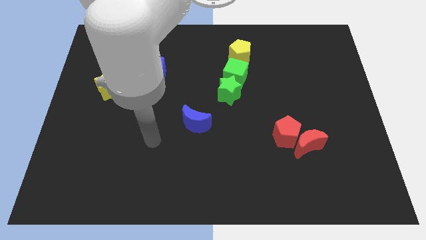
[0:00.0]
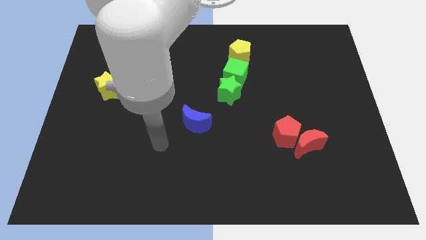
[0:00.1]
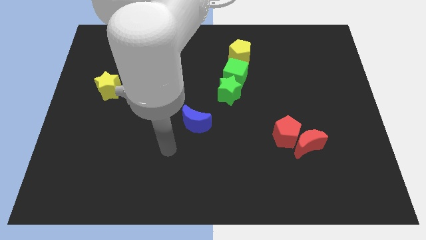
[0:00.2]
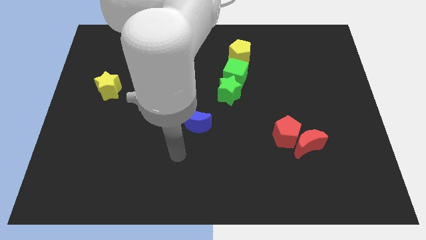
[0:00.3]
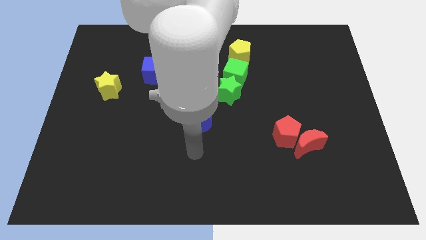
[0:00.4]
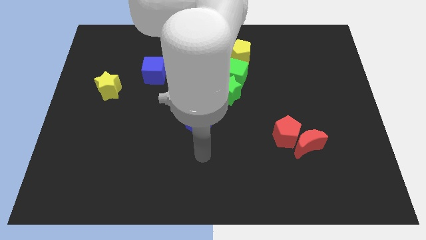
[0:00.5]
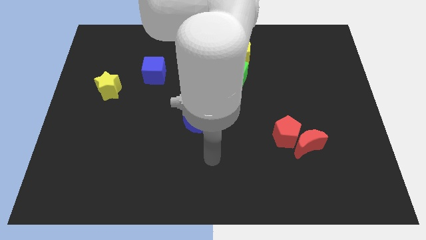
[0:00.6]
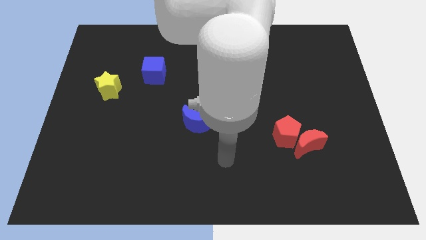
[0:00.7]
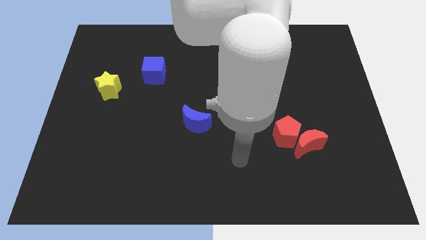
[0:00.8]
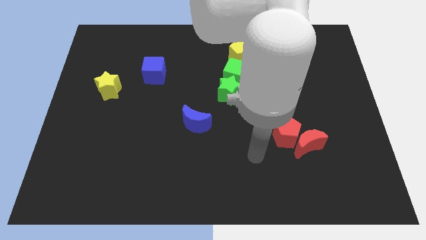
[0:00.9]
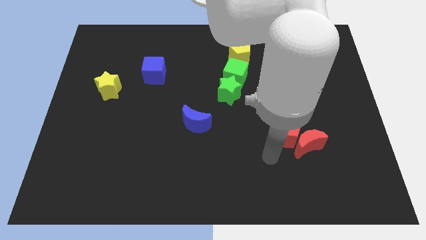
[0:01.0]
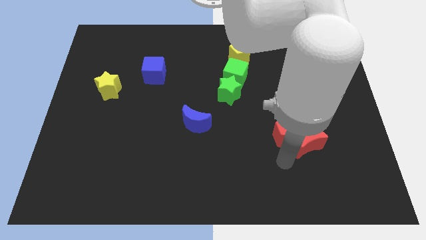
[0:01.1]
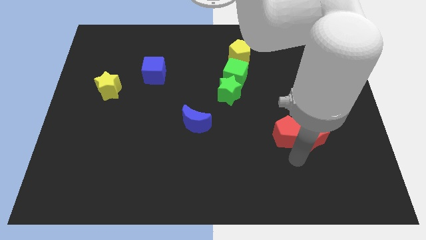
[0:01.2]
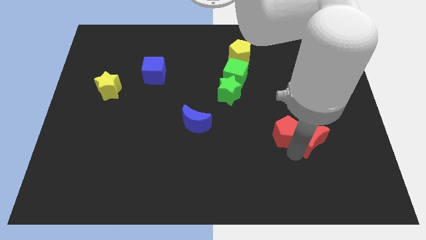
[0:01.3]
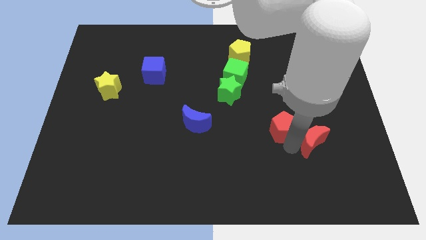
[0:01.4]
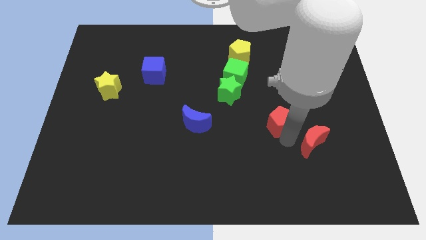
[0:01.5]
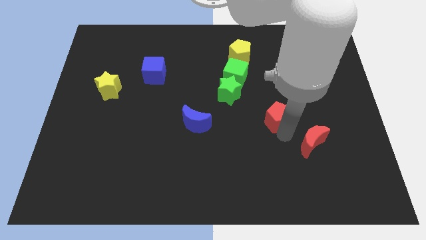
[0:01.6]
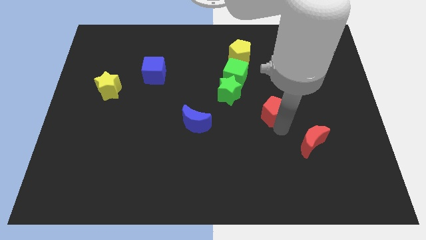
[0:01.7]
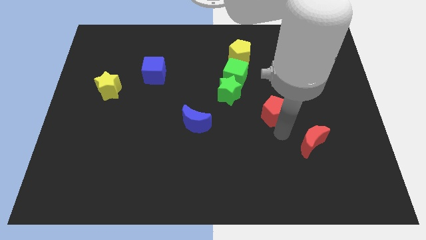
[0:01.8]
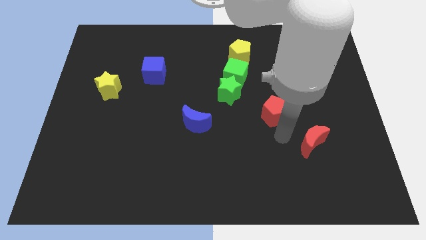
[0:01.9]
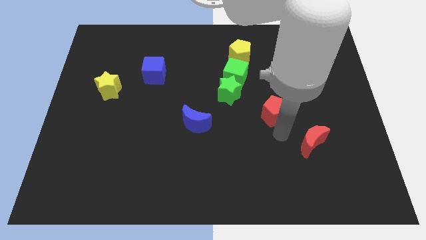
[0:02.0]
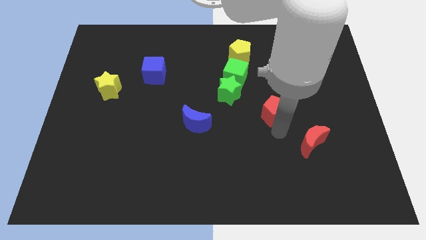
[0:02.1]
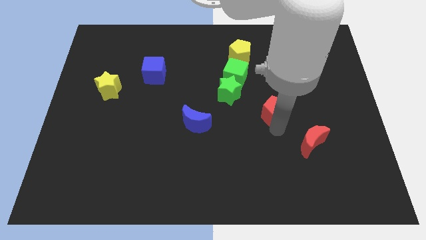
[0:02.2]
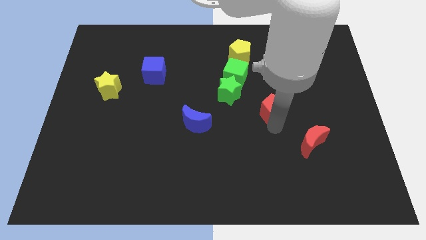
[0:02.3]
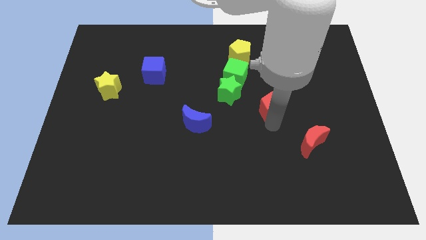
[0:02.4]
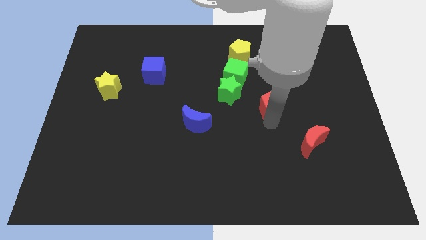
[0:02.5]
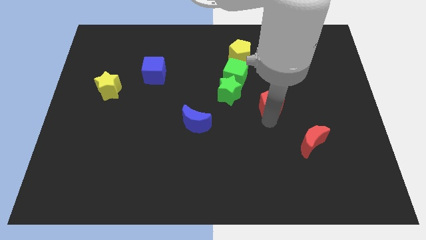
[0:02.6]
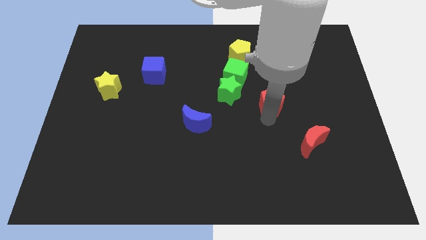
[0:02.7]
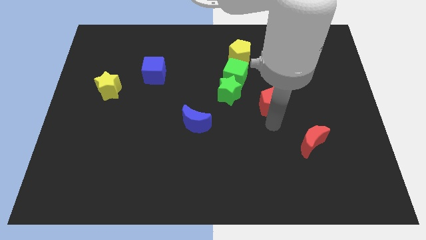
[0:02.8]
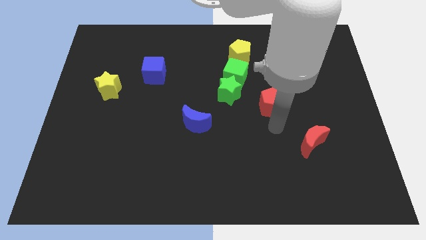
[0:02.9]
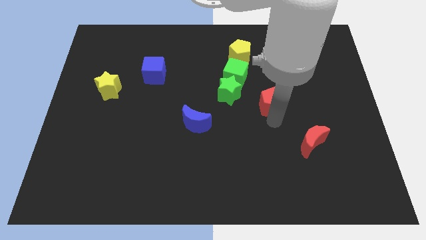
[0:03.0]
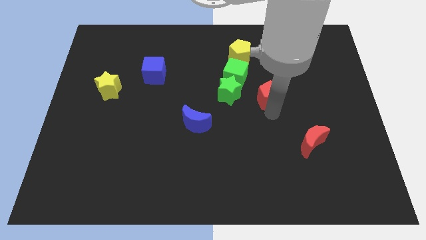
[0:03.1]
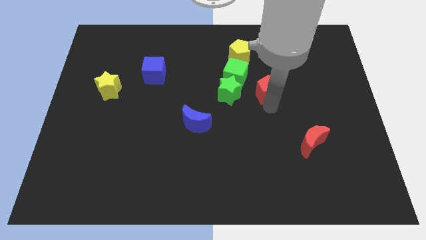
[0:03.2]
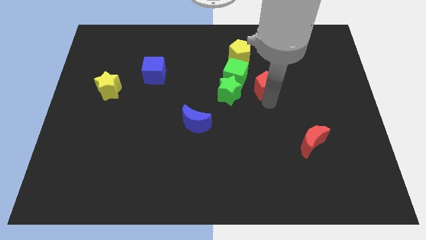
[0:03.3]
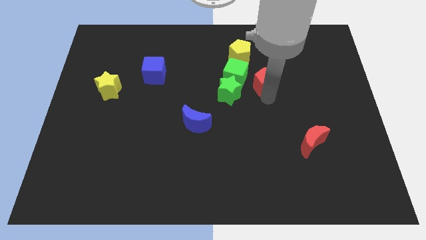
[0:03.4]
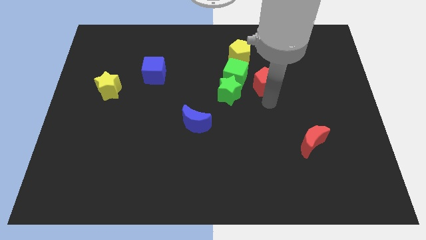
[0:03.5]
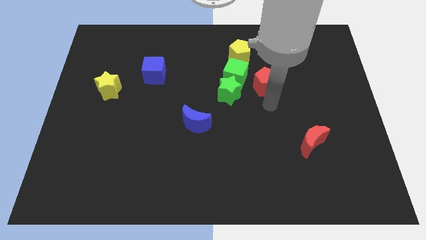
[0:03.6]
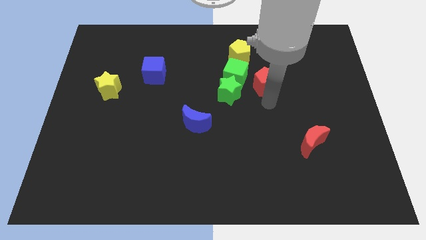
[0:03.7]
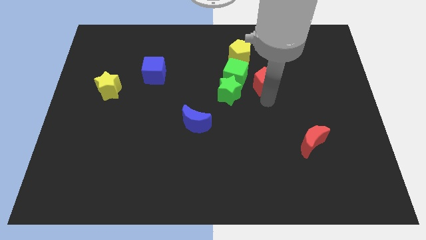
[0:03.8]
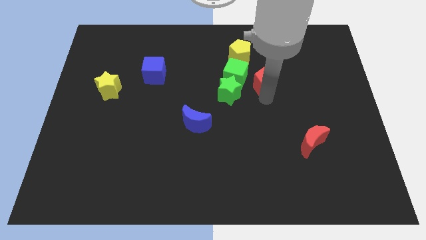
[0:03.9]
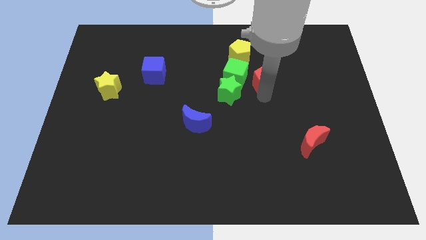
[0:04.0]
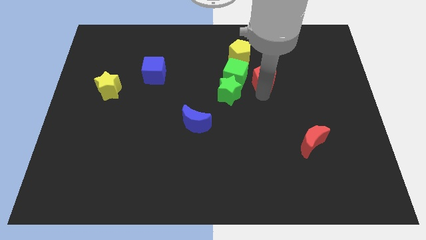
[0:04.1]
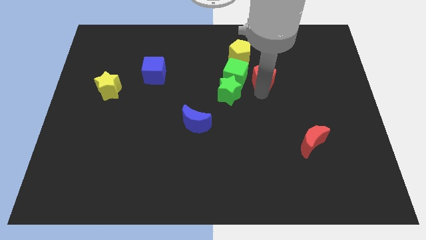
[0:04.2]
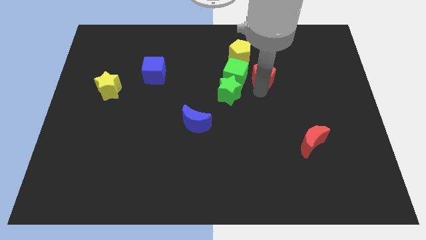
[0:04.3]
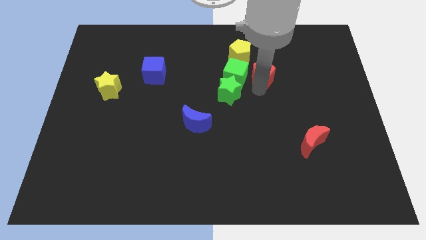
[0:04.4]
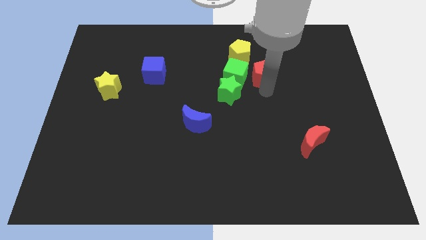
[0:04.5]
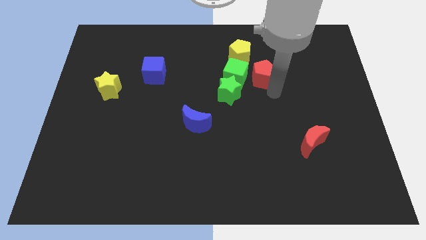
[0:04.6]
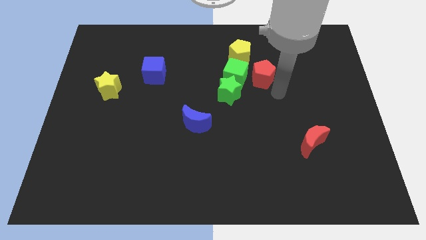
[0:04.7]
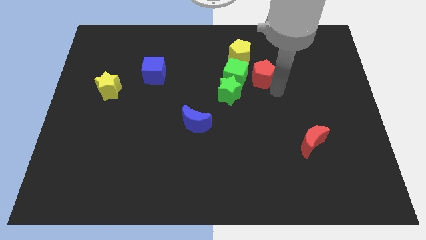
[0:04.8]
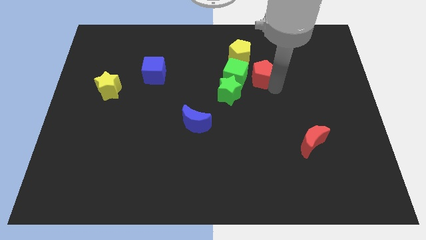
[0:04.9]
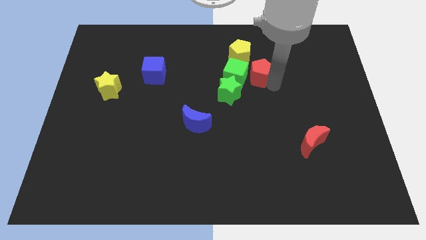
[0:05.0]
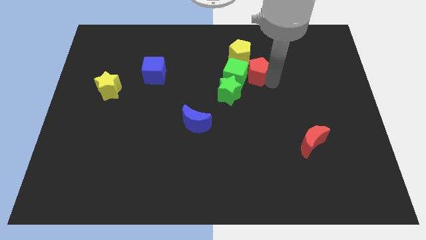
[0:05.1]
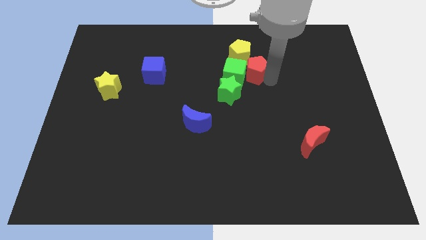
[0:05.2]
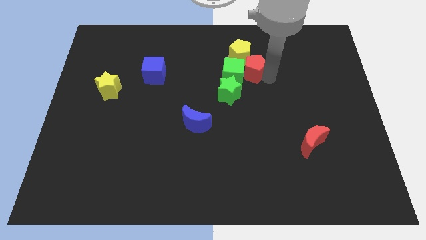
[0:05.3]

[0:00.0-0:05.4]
slide the red pentagon close to the yellow pentagon

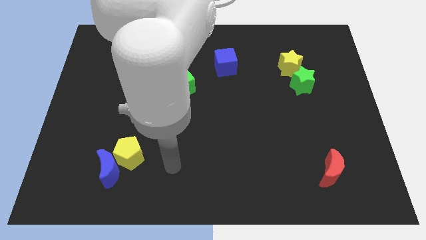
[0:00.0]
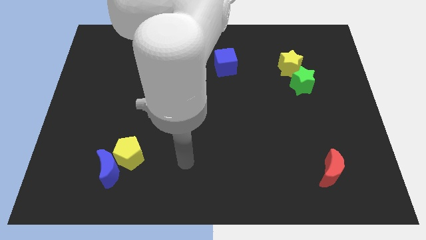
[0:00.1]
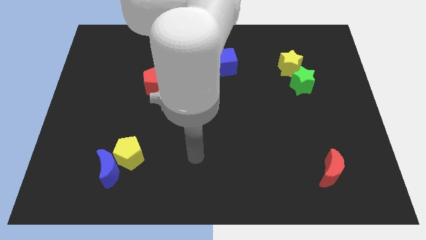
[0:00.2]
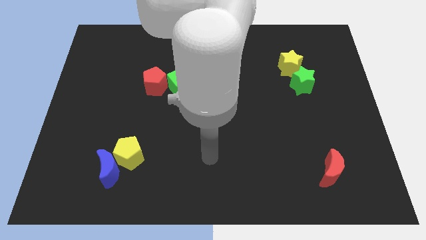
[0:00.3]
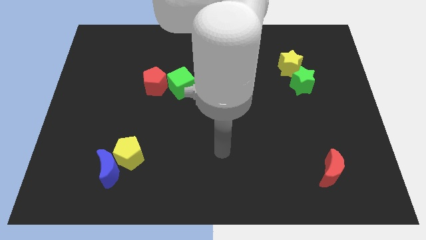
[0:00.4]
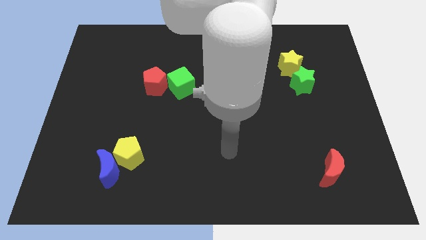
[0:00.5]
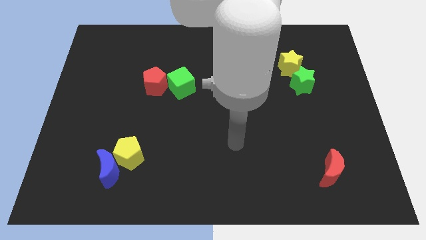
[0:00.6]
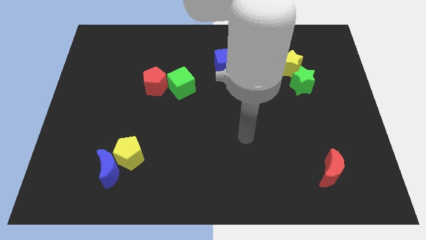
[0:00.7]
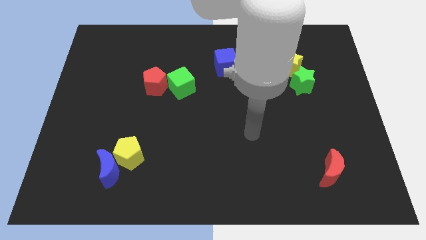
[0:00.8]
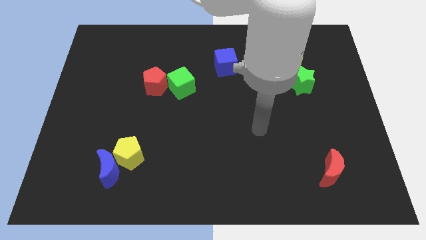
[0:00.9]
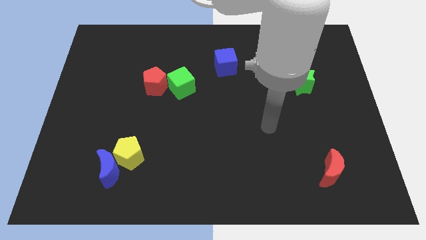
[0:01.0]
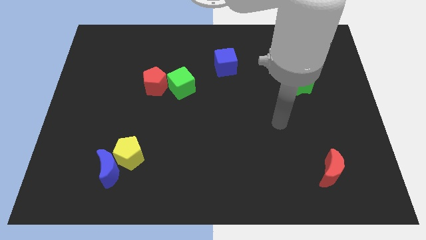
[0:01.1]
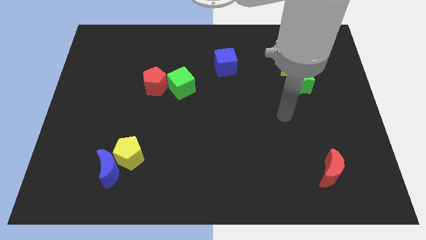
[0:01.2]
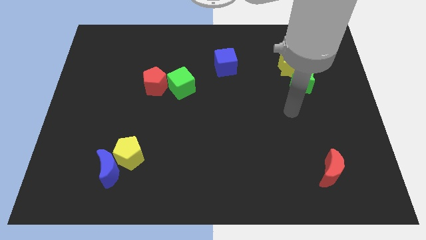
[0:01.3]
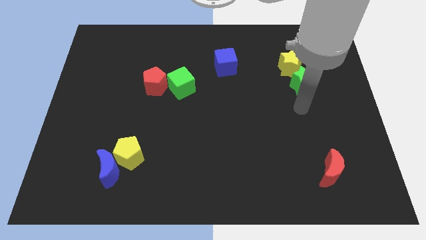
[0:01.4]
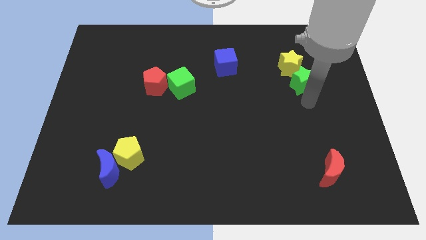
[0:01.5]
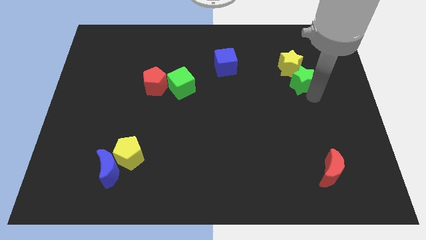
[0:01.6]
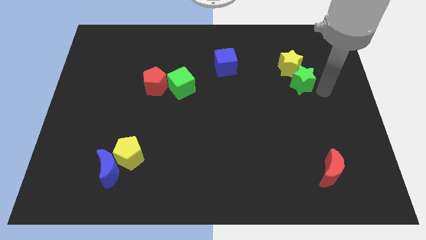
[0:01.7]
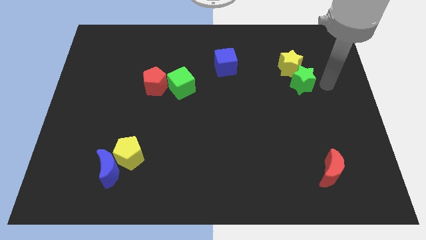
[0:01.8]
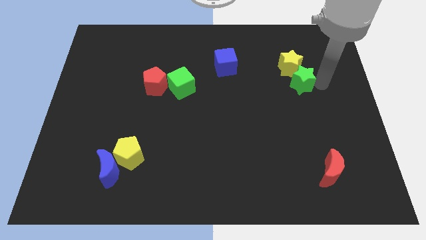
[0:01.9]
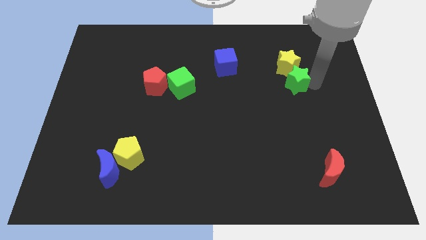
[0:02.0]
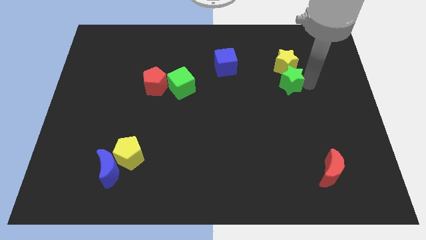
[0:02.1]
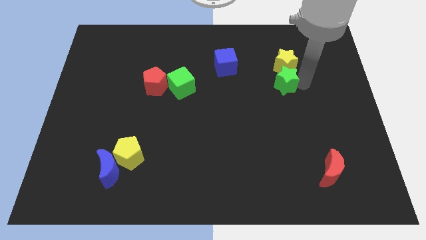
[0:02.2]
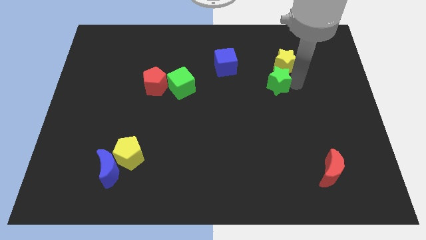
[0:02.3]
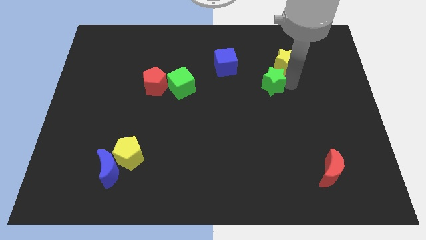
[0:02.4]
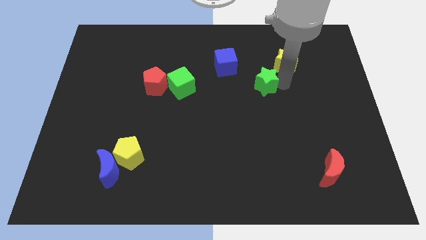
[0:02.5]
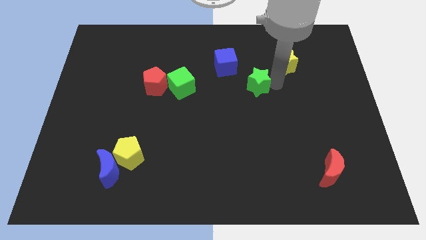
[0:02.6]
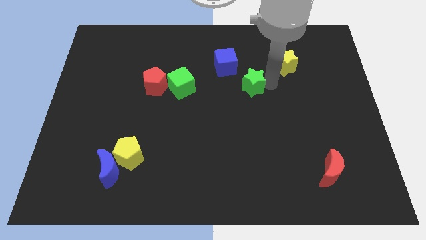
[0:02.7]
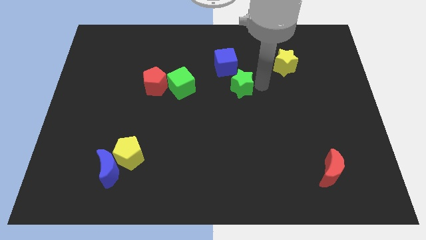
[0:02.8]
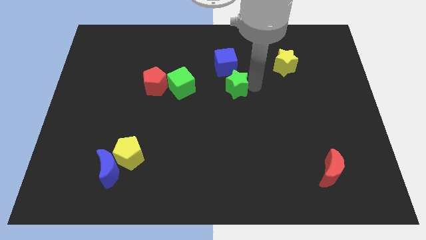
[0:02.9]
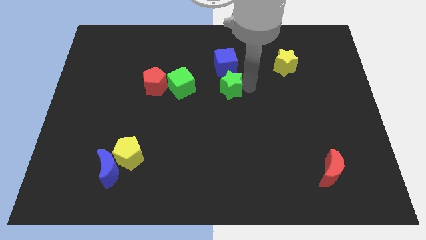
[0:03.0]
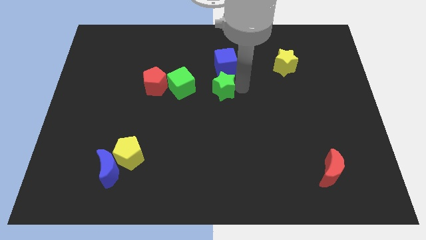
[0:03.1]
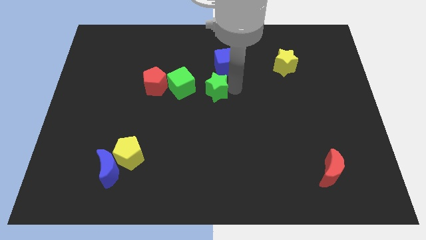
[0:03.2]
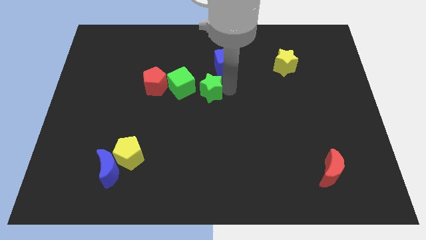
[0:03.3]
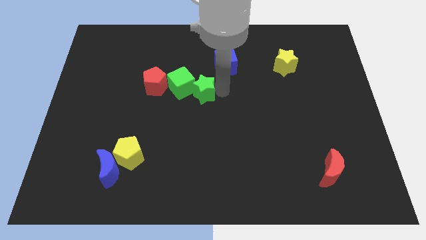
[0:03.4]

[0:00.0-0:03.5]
move the green star towards the green cube
